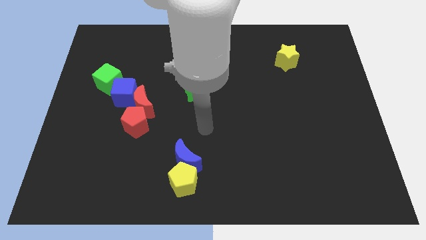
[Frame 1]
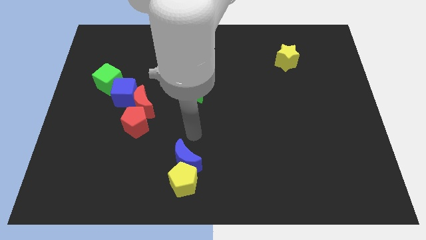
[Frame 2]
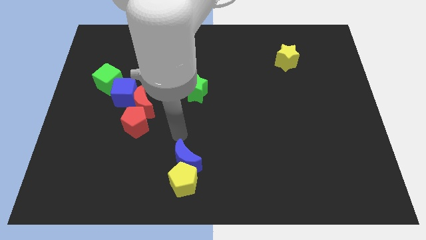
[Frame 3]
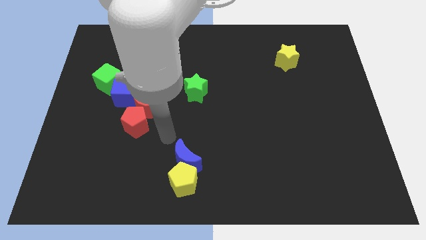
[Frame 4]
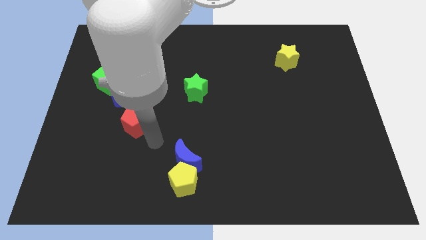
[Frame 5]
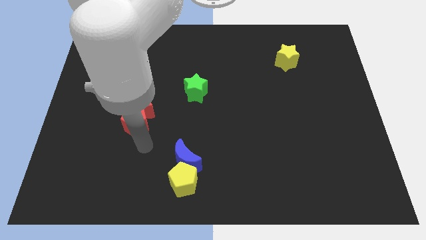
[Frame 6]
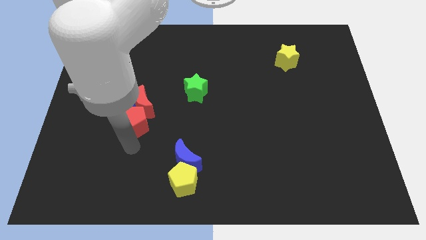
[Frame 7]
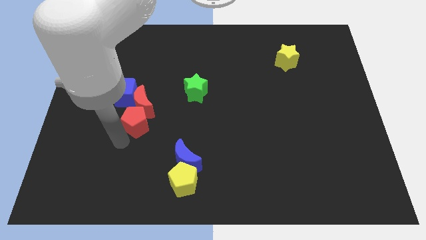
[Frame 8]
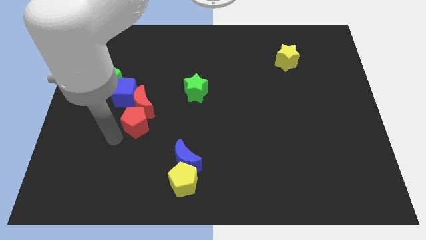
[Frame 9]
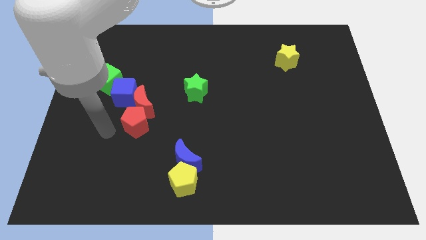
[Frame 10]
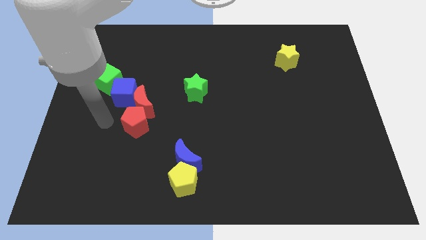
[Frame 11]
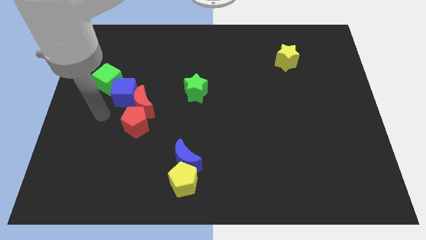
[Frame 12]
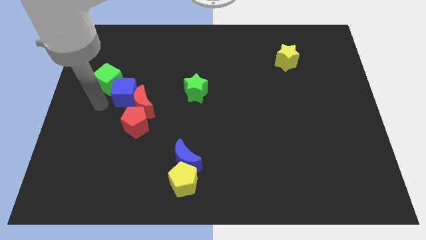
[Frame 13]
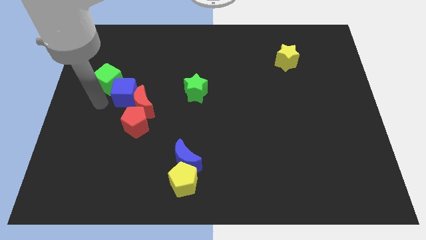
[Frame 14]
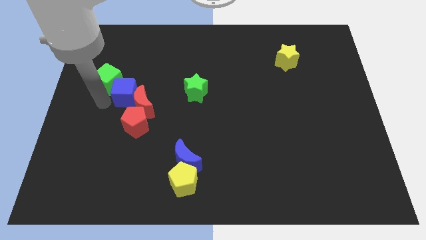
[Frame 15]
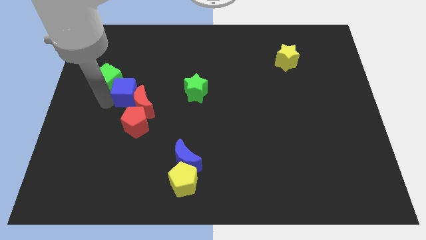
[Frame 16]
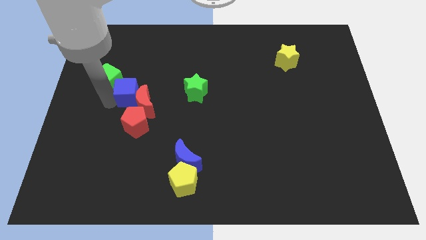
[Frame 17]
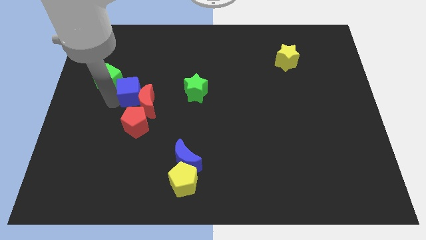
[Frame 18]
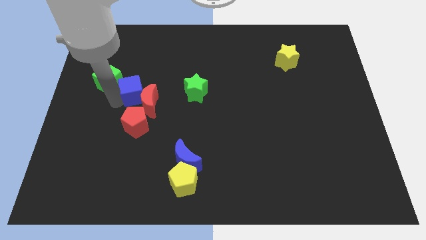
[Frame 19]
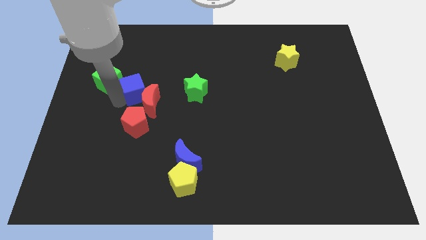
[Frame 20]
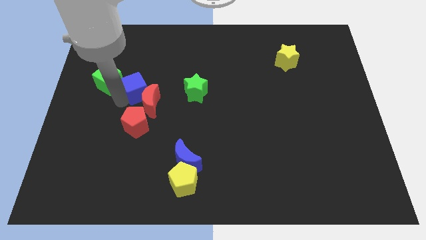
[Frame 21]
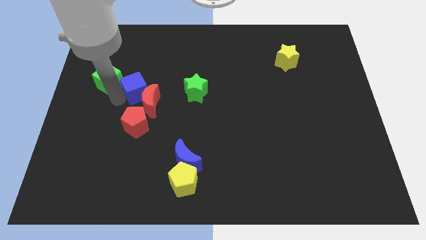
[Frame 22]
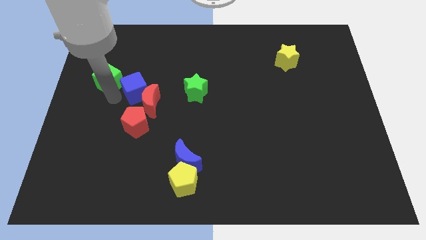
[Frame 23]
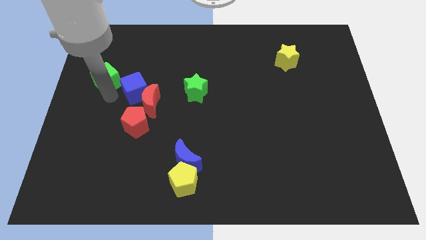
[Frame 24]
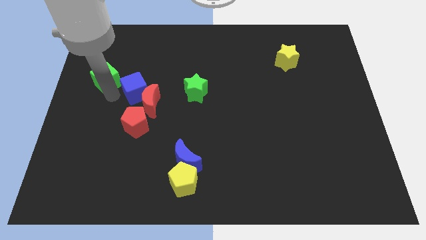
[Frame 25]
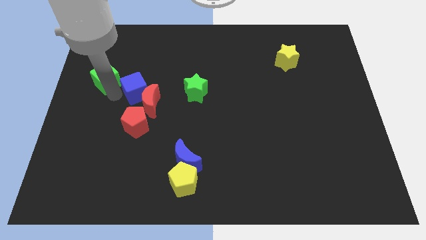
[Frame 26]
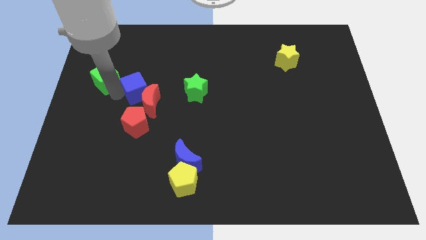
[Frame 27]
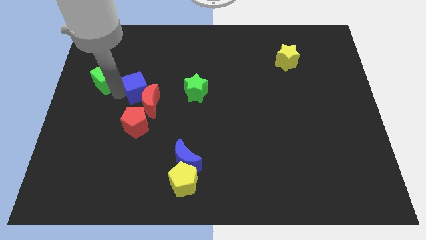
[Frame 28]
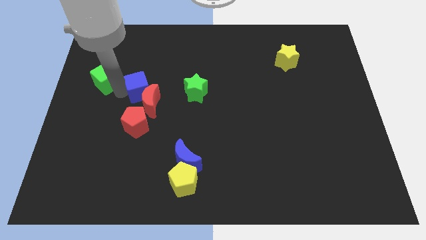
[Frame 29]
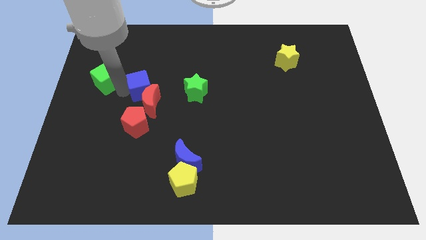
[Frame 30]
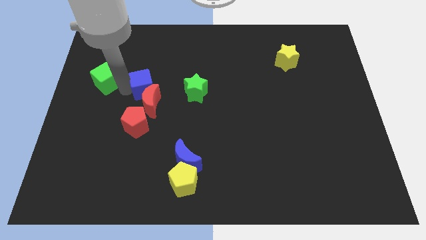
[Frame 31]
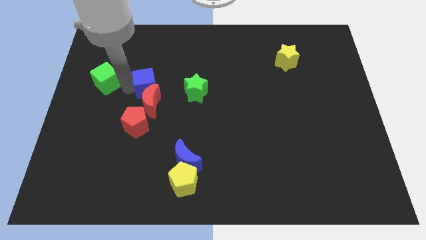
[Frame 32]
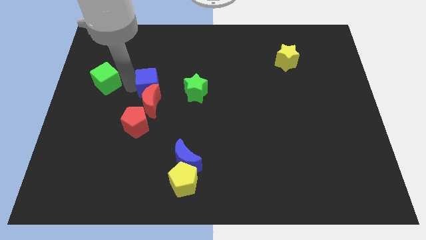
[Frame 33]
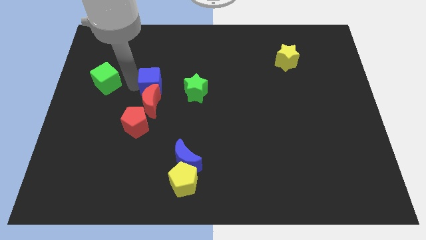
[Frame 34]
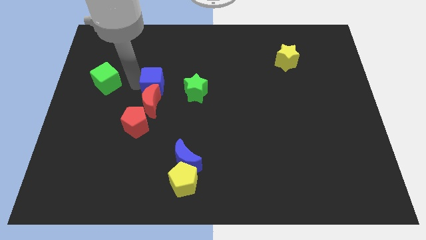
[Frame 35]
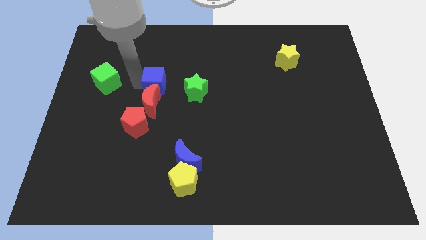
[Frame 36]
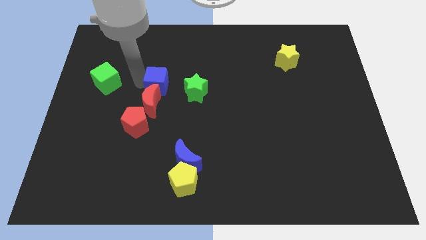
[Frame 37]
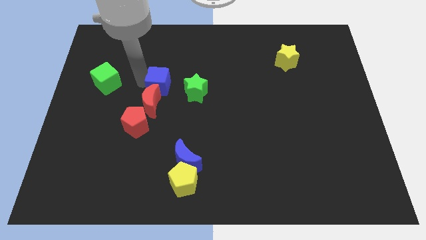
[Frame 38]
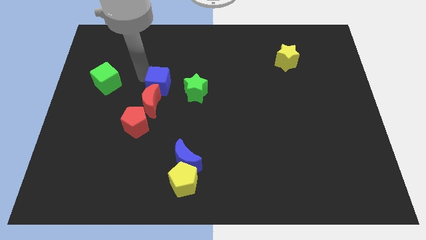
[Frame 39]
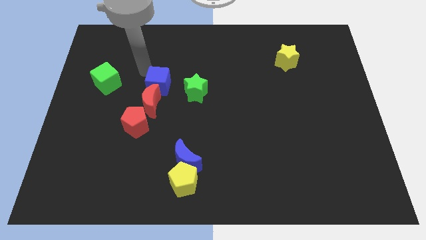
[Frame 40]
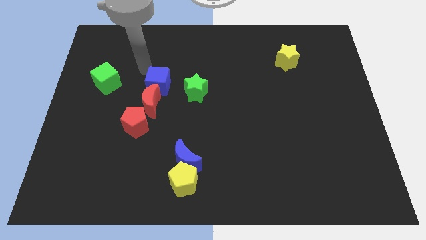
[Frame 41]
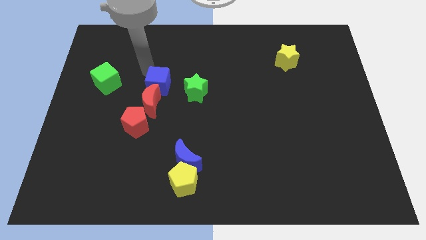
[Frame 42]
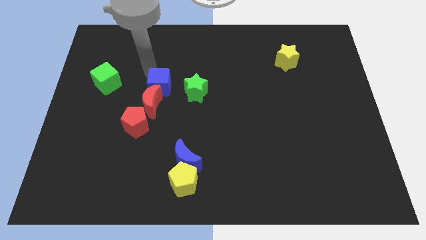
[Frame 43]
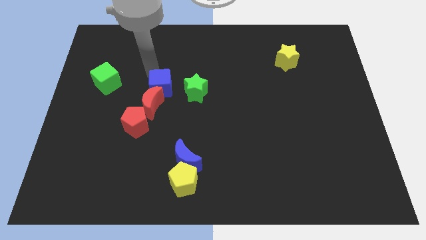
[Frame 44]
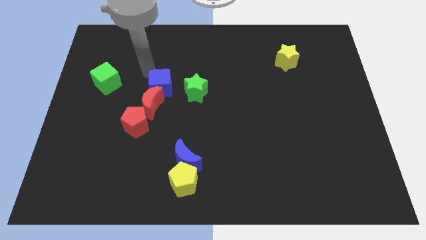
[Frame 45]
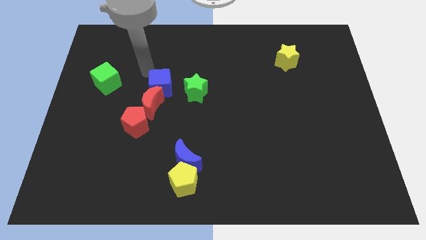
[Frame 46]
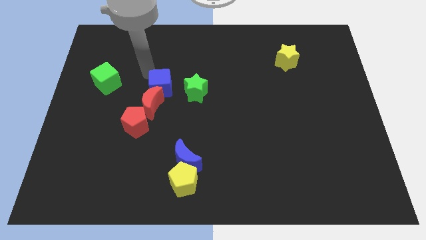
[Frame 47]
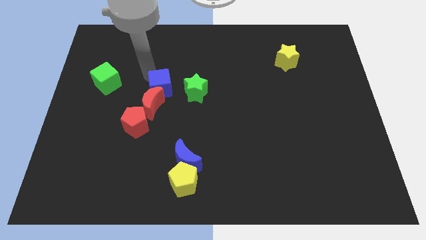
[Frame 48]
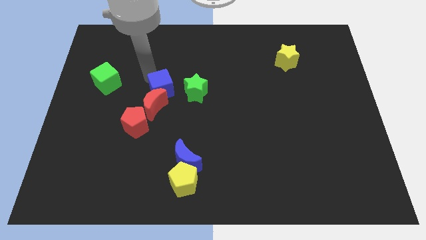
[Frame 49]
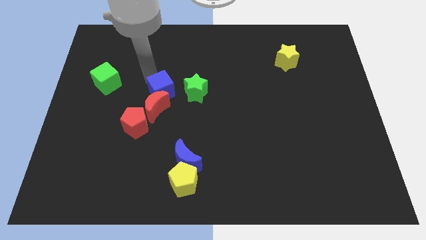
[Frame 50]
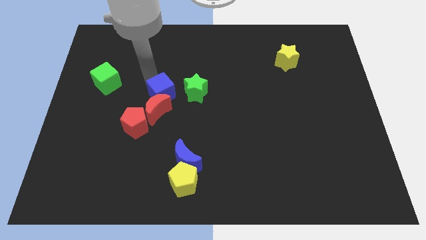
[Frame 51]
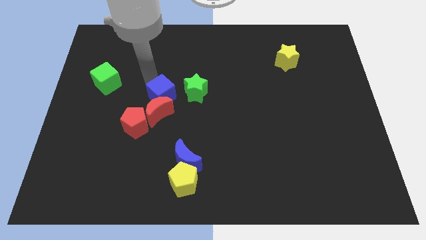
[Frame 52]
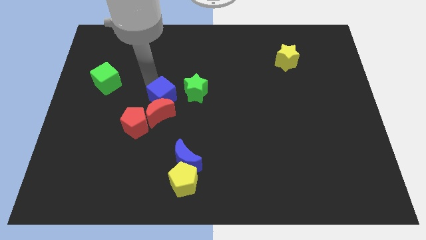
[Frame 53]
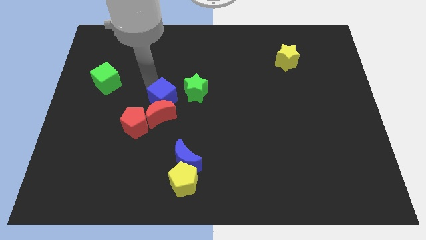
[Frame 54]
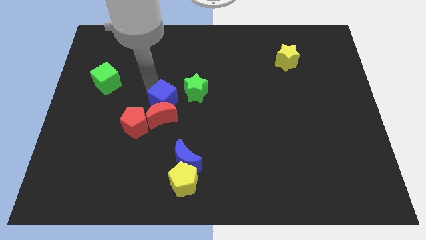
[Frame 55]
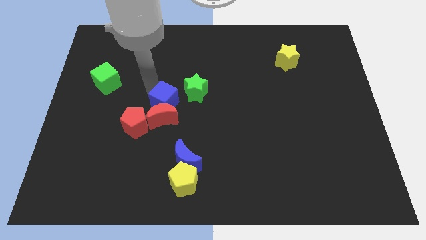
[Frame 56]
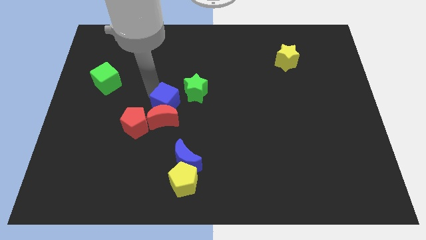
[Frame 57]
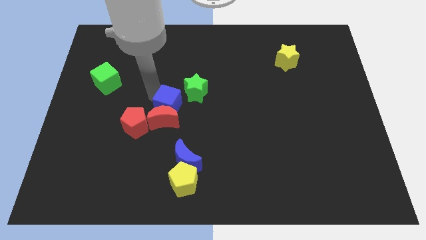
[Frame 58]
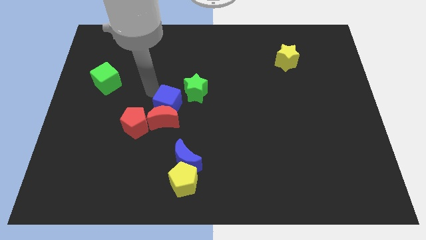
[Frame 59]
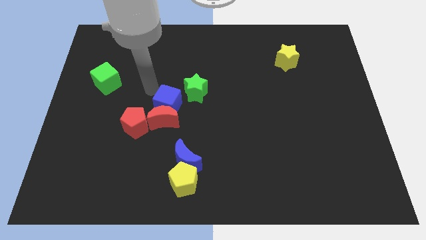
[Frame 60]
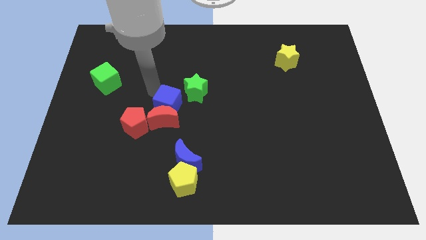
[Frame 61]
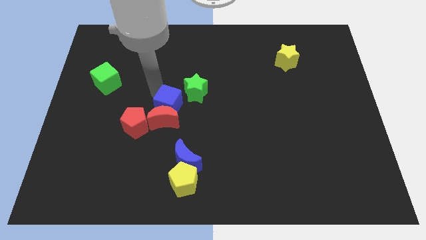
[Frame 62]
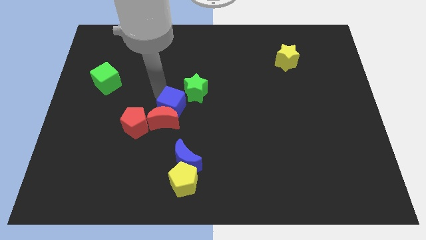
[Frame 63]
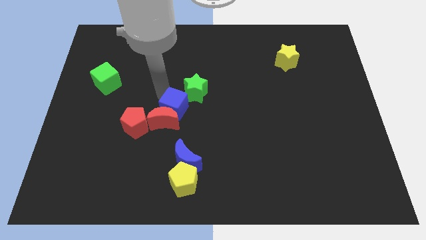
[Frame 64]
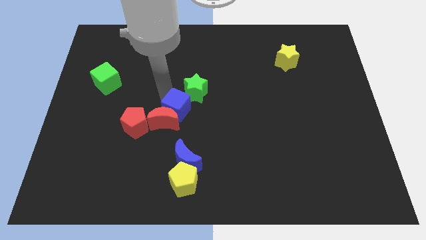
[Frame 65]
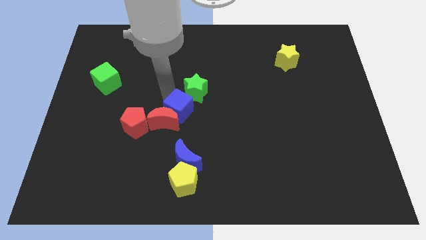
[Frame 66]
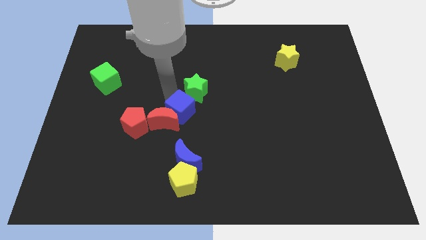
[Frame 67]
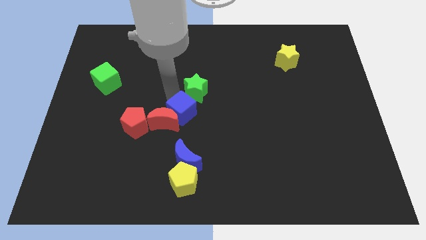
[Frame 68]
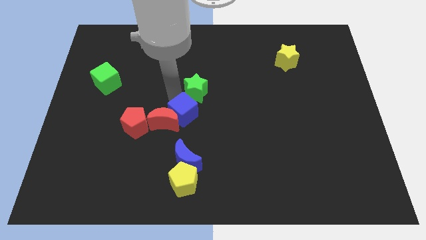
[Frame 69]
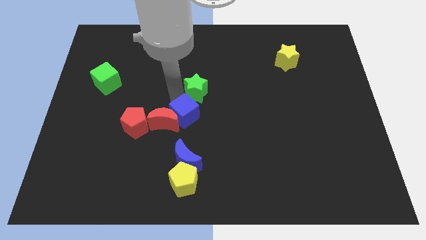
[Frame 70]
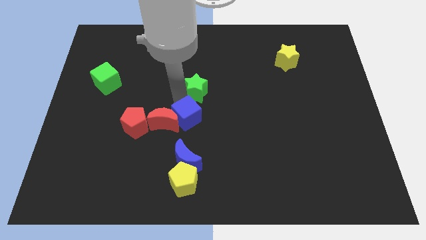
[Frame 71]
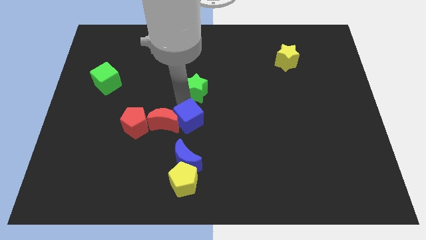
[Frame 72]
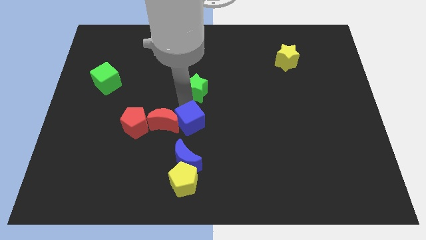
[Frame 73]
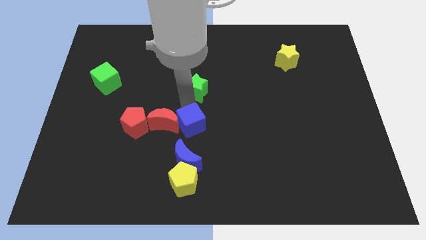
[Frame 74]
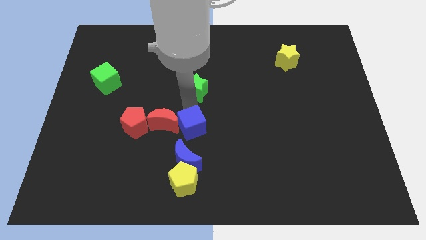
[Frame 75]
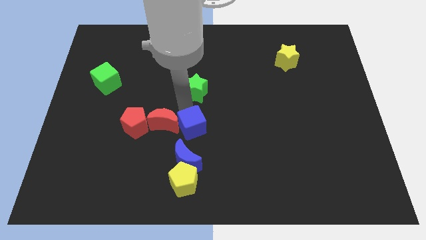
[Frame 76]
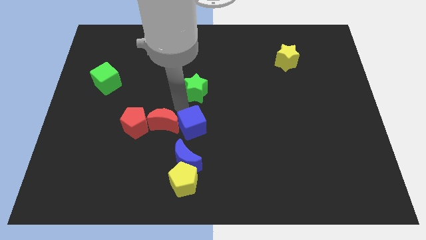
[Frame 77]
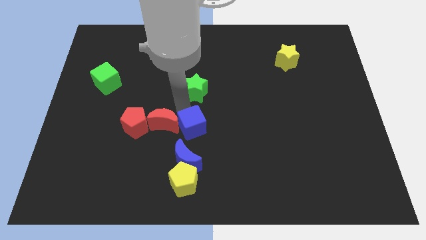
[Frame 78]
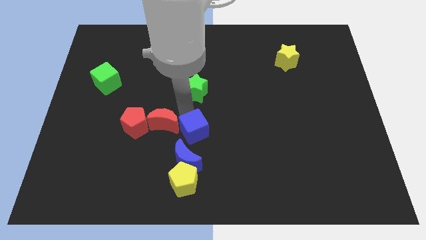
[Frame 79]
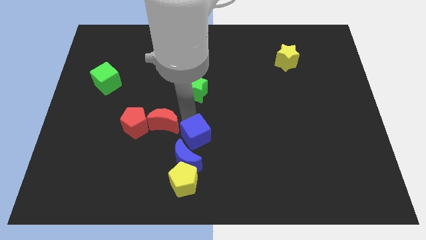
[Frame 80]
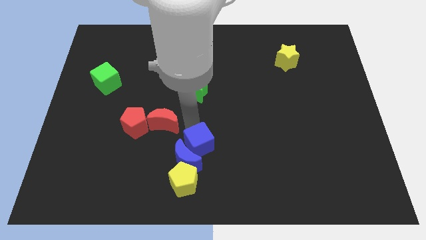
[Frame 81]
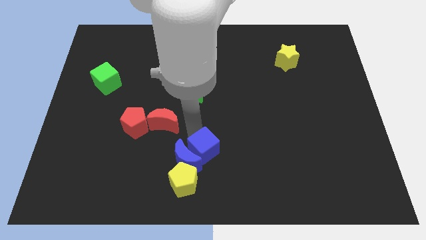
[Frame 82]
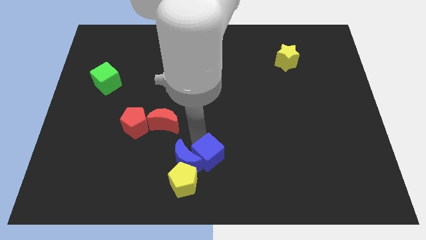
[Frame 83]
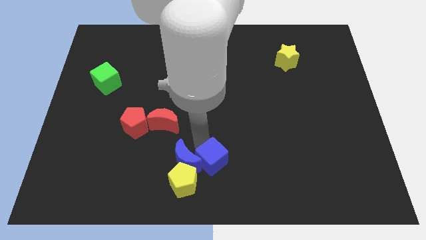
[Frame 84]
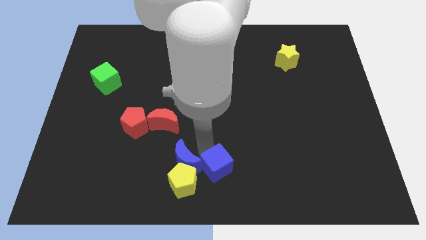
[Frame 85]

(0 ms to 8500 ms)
slide the blue cube just right of the yellow pentagon
